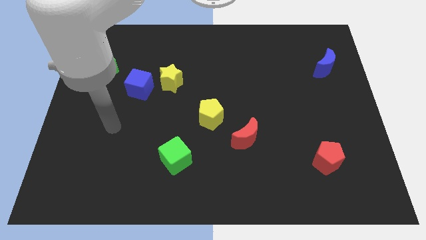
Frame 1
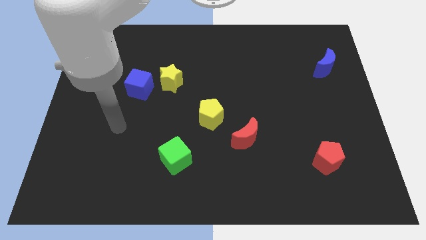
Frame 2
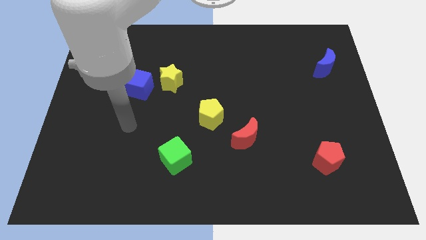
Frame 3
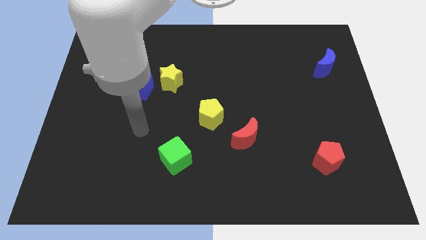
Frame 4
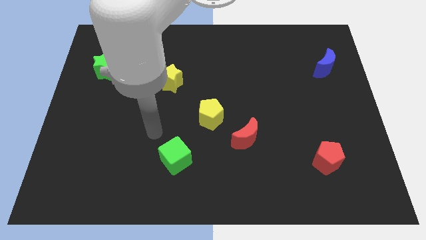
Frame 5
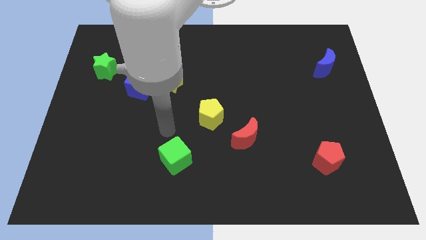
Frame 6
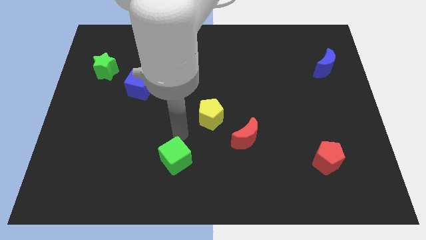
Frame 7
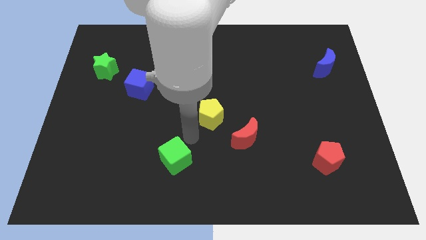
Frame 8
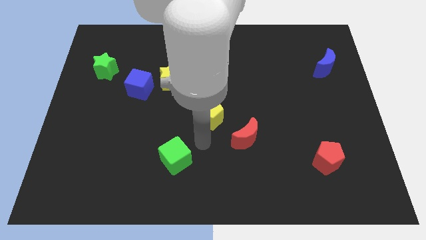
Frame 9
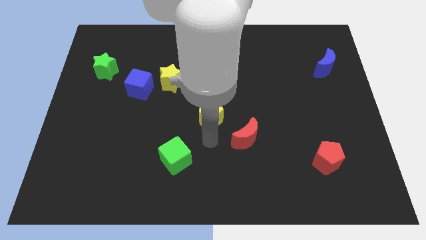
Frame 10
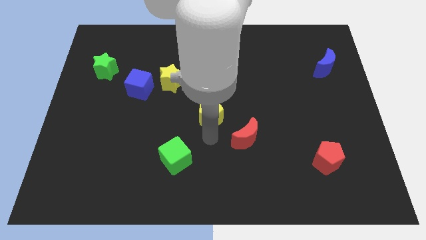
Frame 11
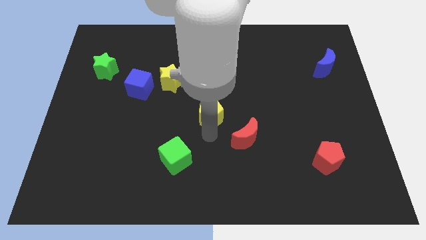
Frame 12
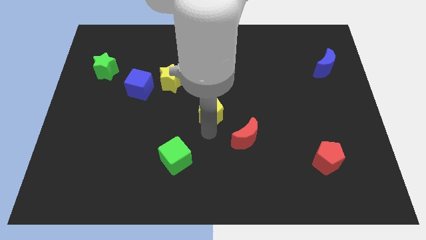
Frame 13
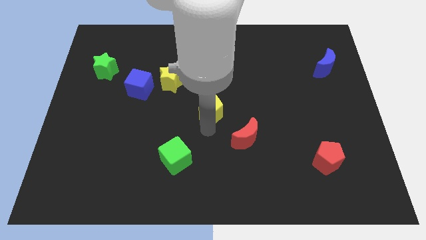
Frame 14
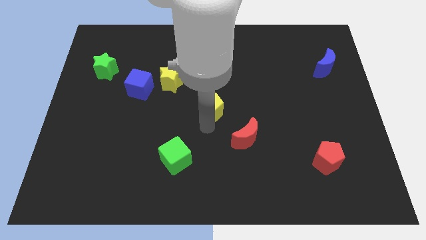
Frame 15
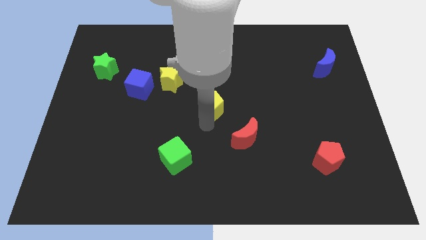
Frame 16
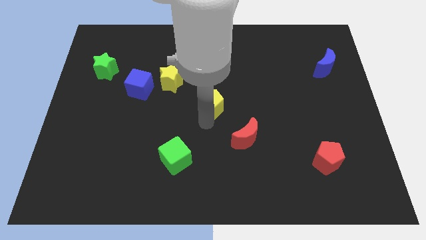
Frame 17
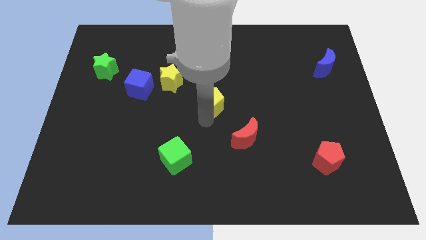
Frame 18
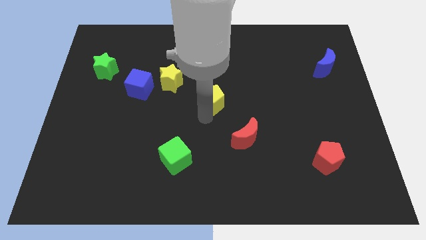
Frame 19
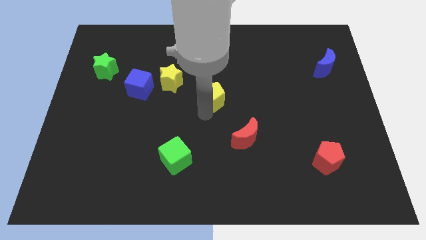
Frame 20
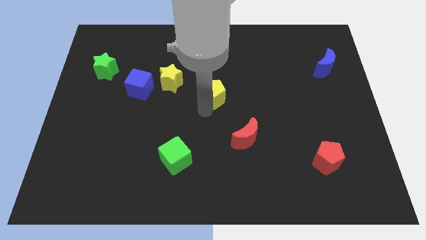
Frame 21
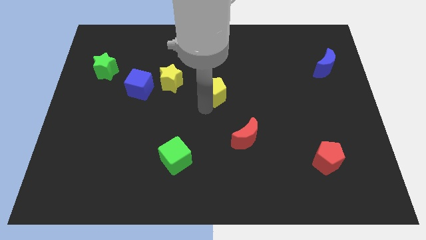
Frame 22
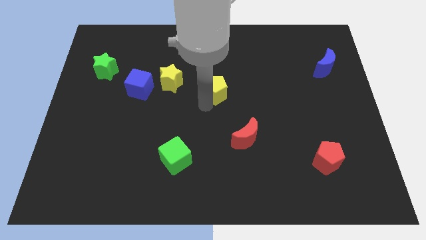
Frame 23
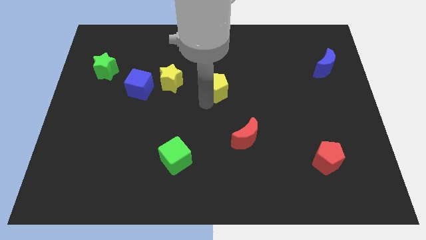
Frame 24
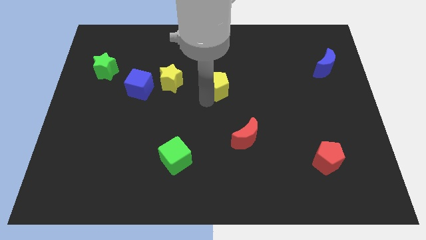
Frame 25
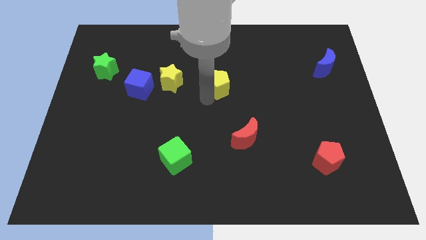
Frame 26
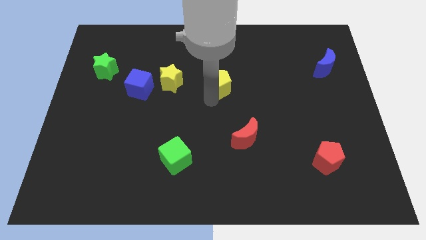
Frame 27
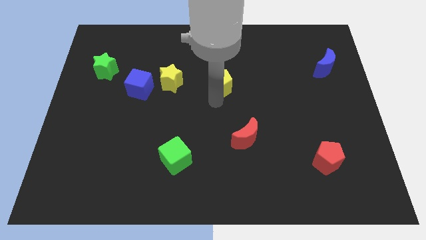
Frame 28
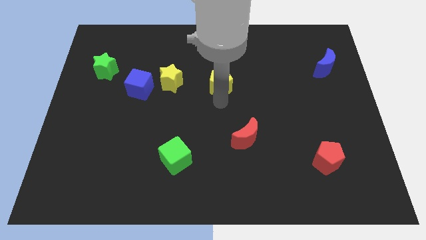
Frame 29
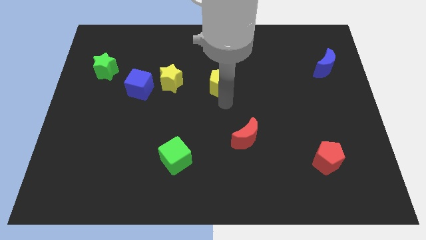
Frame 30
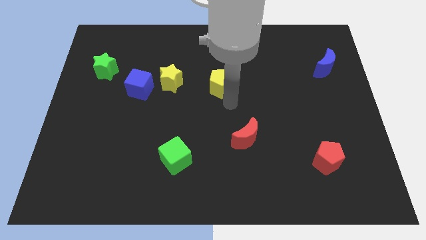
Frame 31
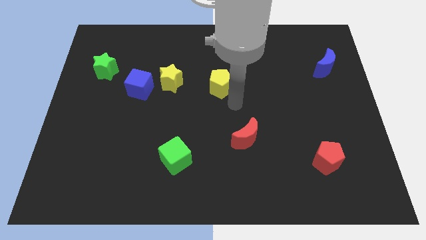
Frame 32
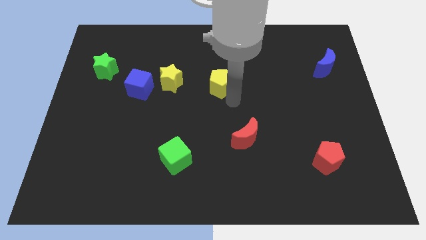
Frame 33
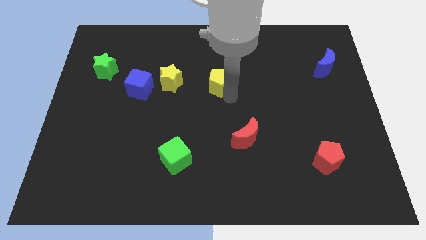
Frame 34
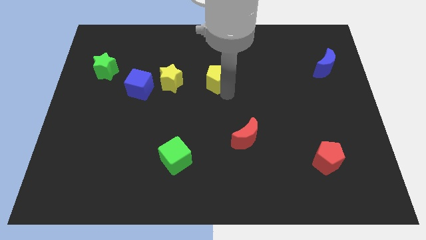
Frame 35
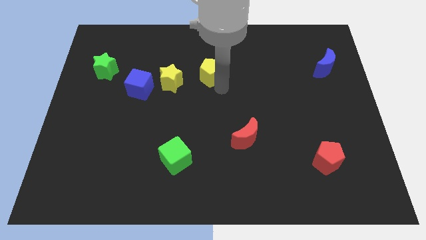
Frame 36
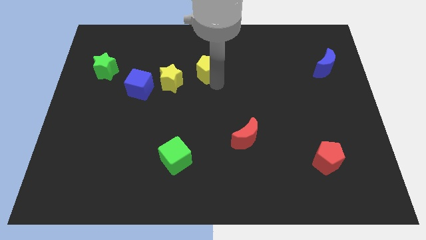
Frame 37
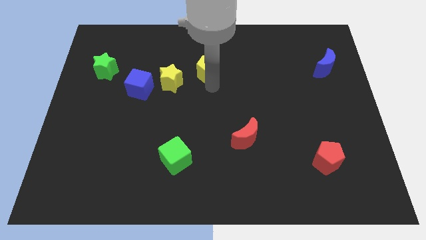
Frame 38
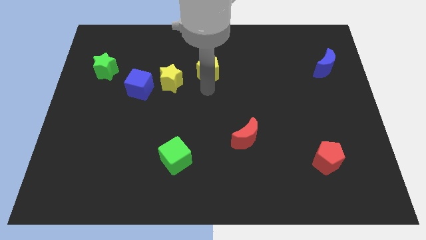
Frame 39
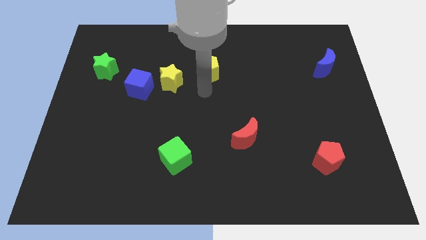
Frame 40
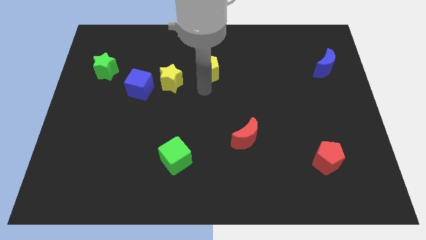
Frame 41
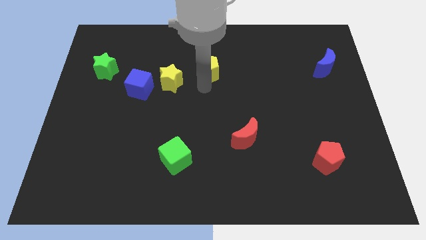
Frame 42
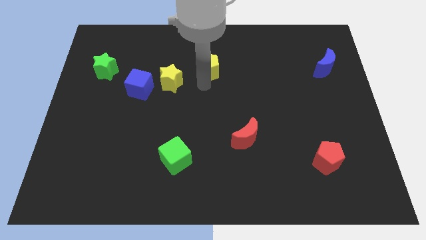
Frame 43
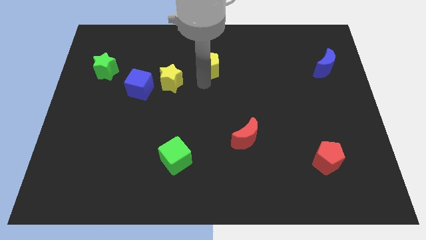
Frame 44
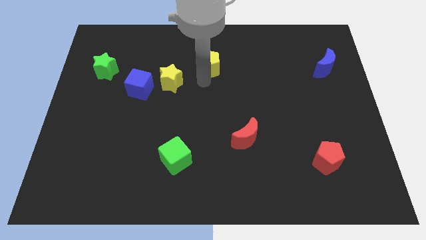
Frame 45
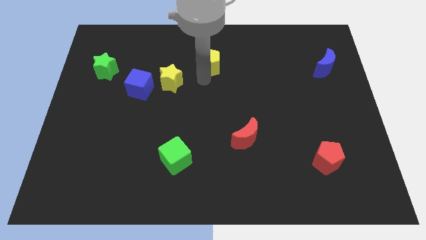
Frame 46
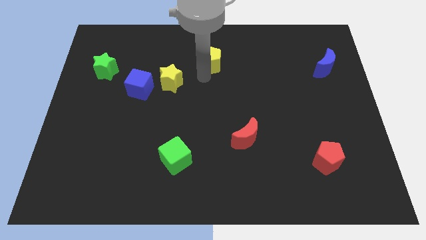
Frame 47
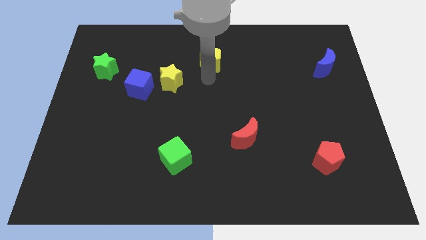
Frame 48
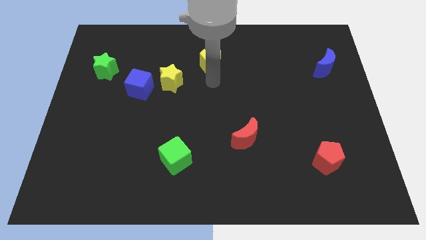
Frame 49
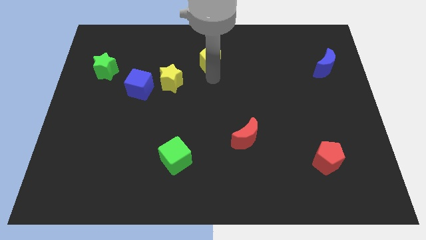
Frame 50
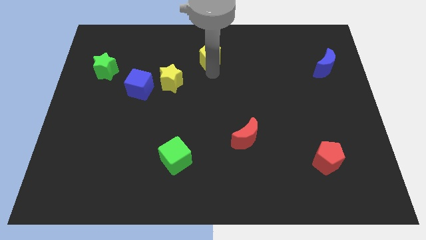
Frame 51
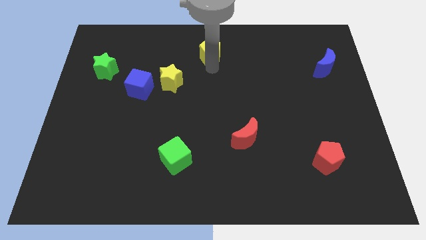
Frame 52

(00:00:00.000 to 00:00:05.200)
move the yellow pentagon to the top

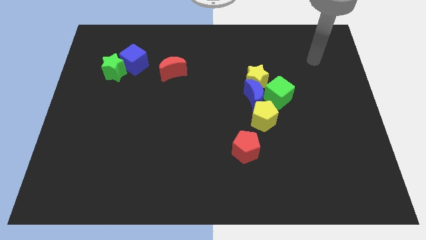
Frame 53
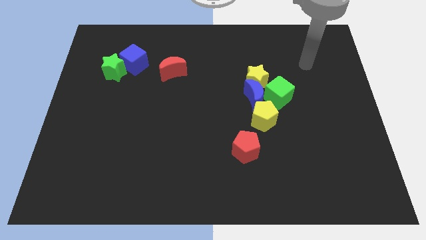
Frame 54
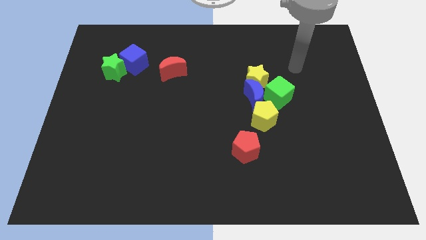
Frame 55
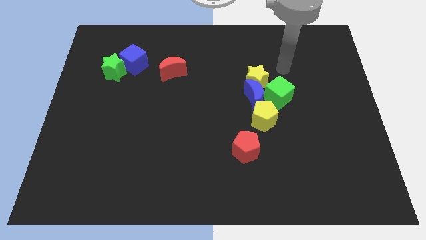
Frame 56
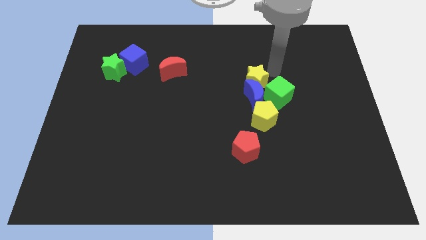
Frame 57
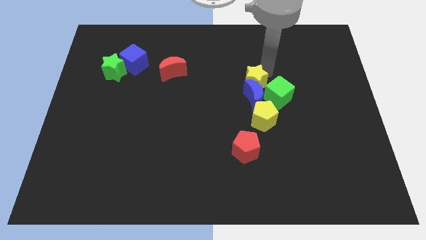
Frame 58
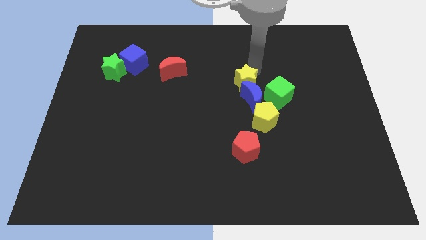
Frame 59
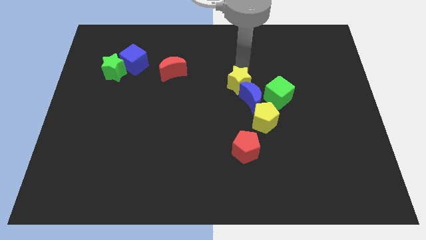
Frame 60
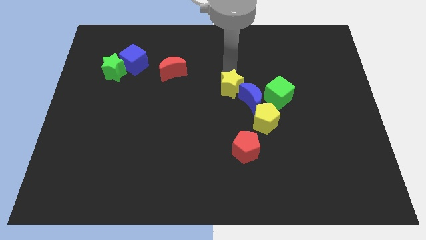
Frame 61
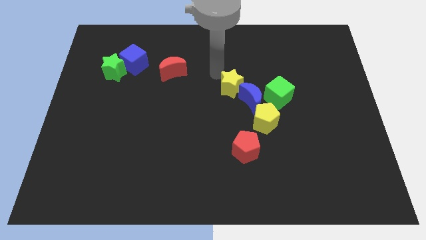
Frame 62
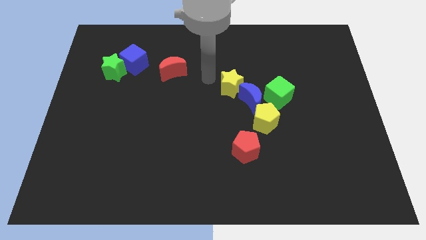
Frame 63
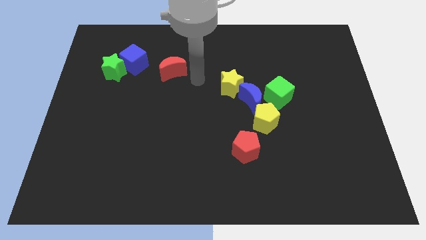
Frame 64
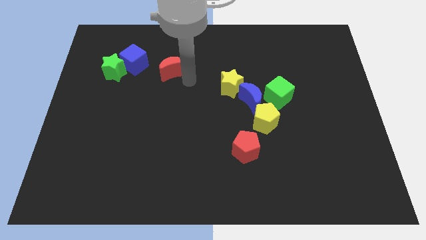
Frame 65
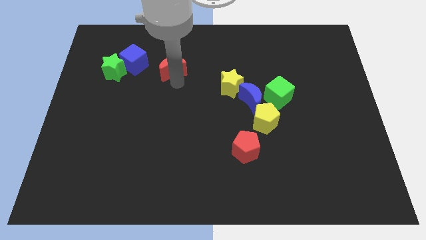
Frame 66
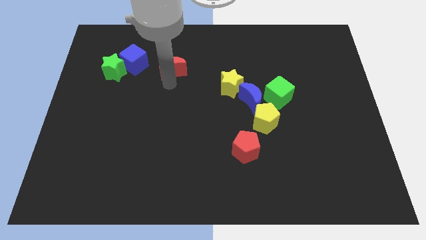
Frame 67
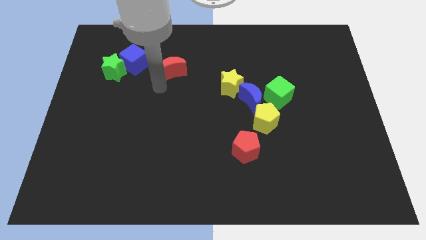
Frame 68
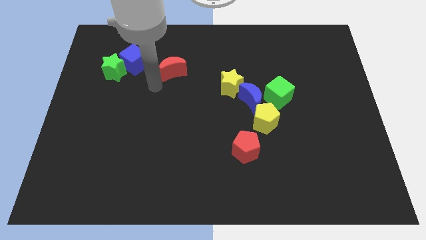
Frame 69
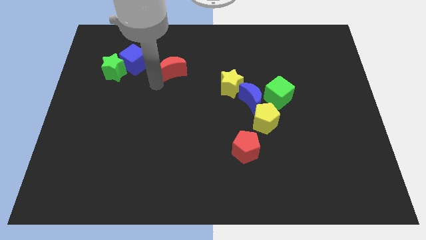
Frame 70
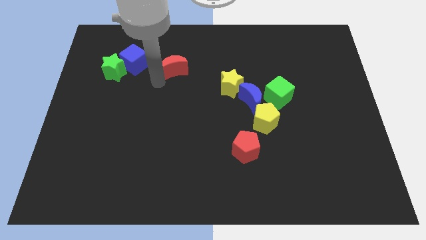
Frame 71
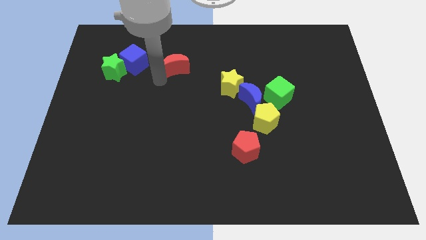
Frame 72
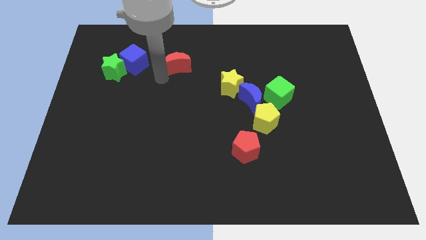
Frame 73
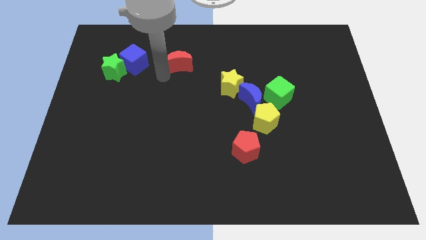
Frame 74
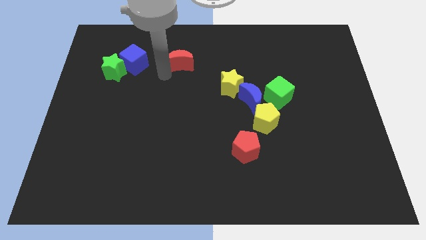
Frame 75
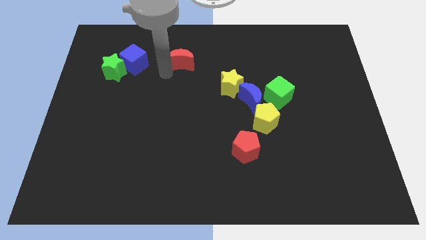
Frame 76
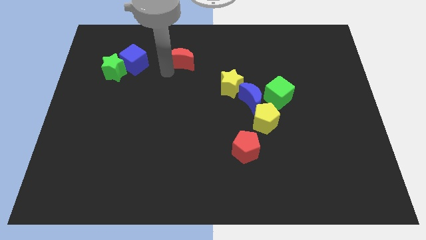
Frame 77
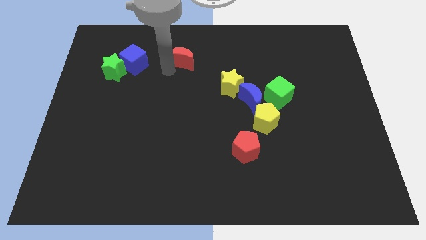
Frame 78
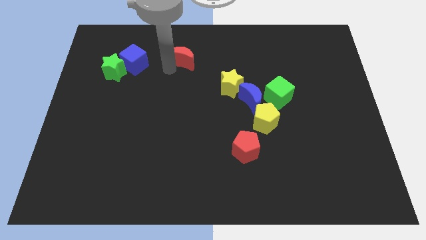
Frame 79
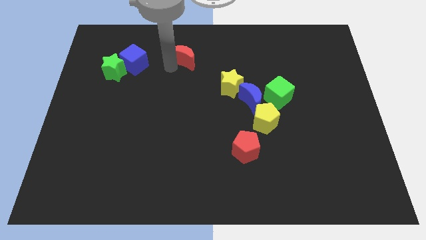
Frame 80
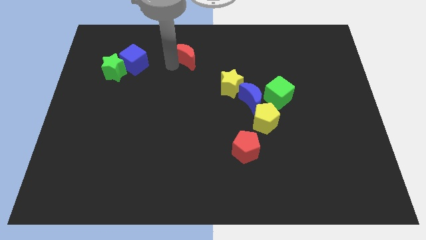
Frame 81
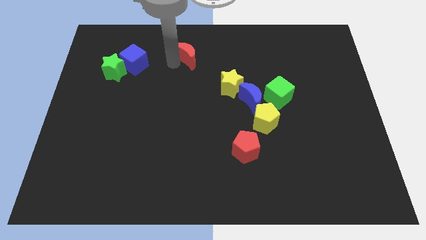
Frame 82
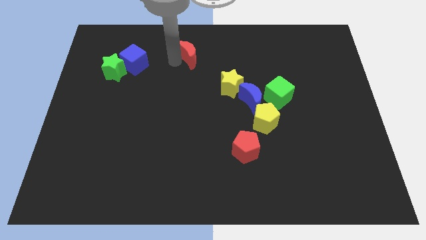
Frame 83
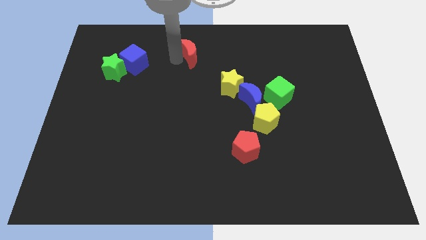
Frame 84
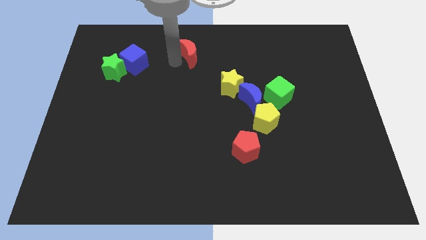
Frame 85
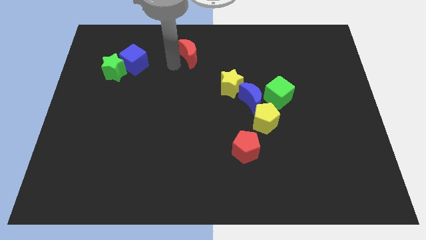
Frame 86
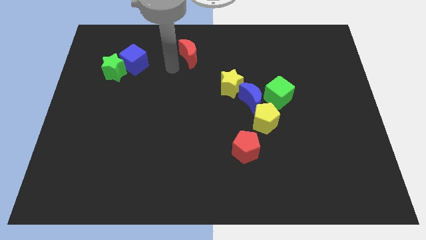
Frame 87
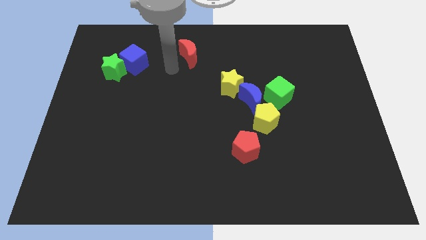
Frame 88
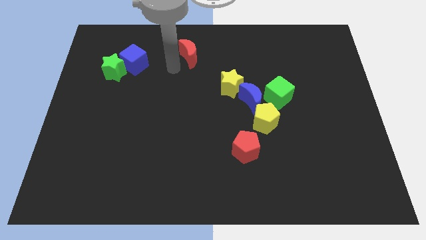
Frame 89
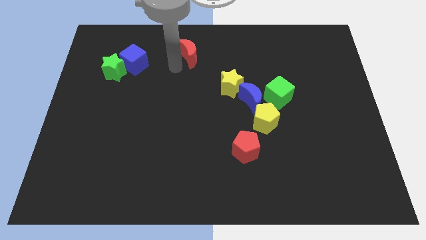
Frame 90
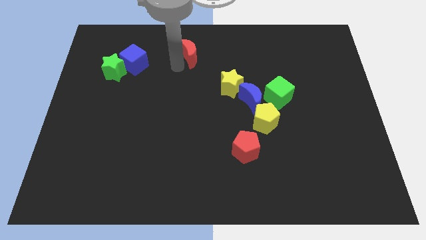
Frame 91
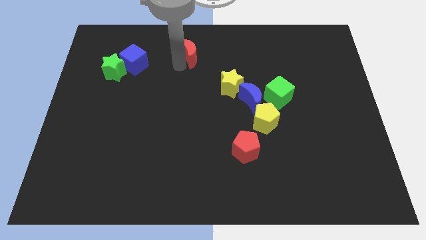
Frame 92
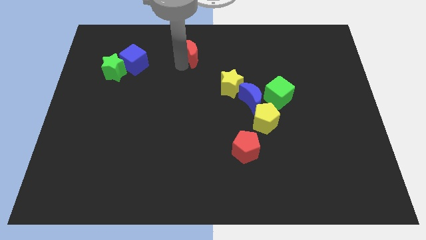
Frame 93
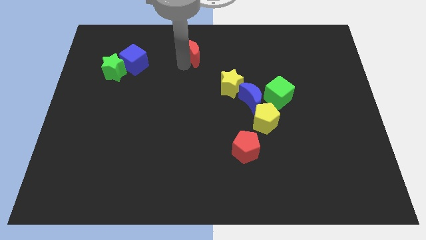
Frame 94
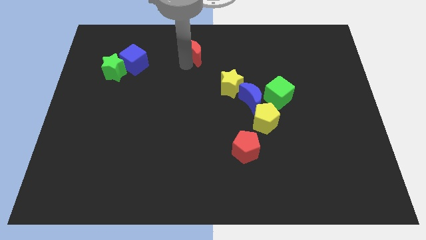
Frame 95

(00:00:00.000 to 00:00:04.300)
slide the red moon to the top
